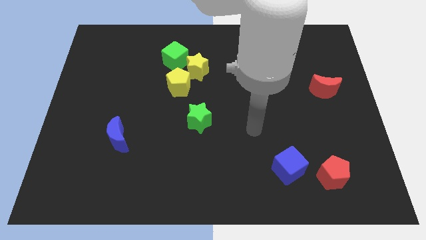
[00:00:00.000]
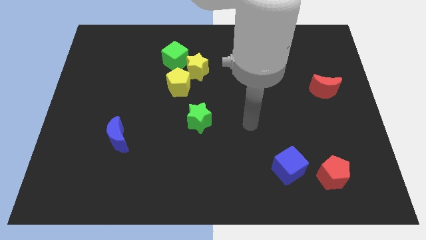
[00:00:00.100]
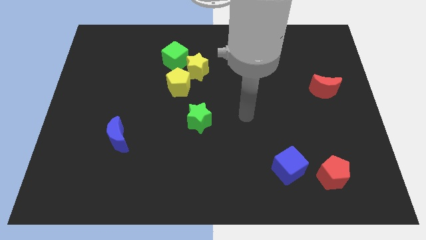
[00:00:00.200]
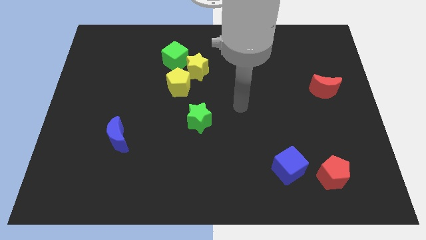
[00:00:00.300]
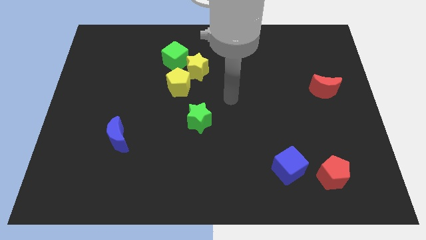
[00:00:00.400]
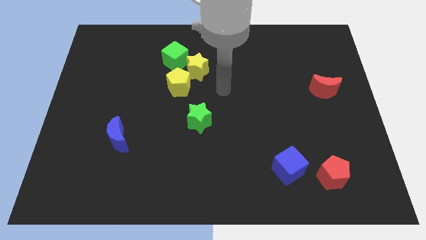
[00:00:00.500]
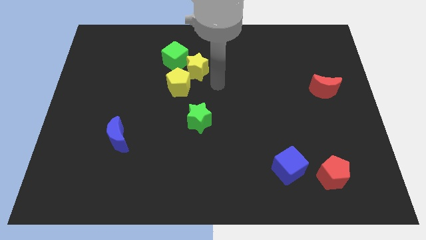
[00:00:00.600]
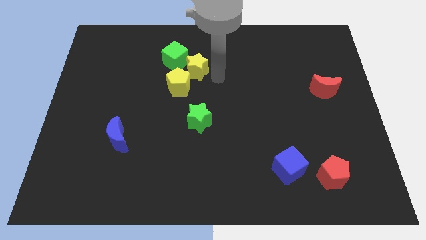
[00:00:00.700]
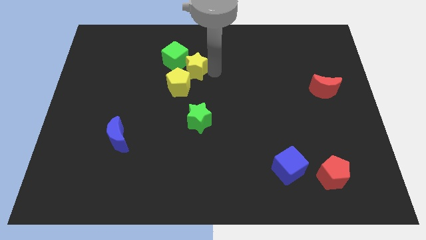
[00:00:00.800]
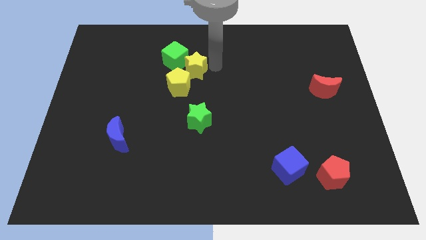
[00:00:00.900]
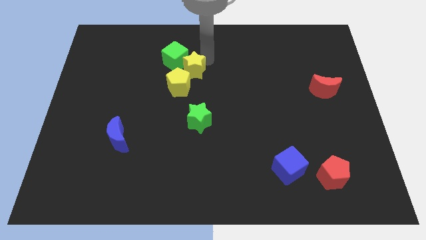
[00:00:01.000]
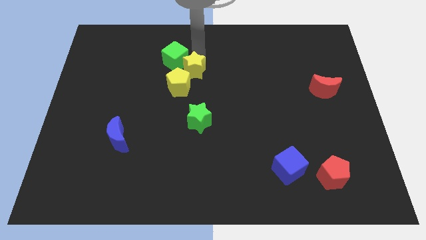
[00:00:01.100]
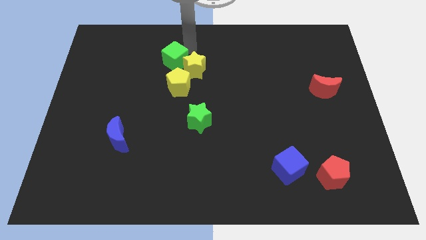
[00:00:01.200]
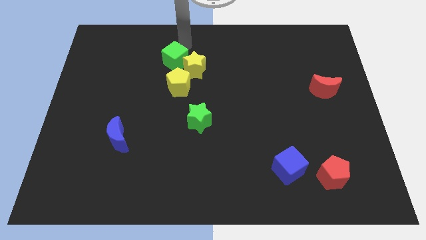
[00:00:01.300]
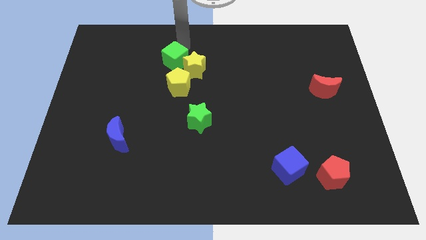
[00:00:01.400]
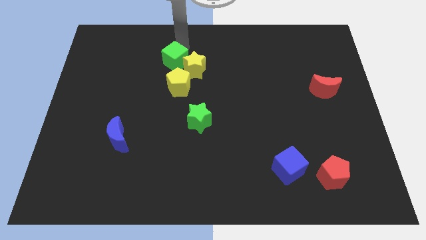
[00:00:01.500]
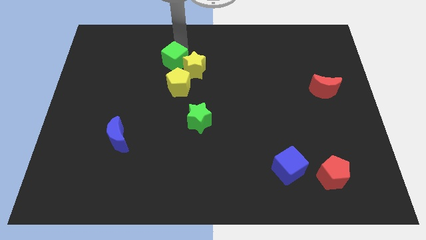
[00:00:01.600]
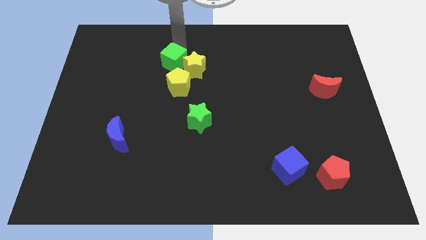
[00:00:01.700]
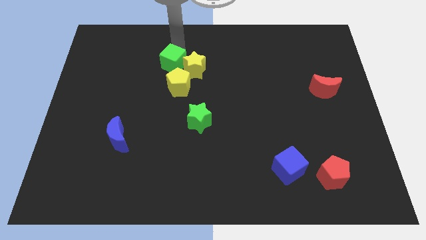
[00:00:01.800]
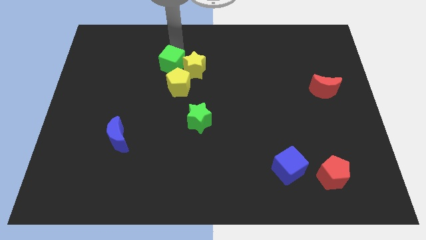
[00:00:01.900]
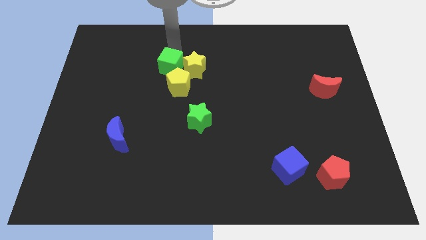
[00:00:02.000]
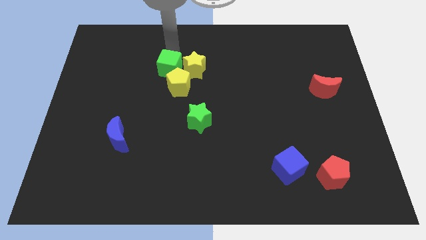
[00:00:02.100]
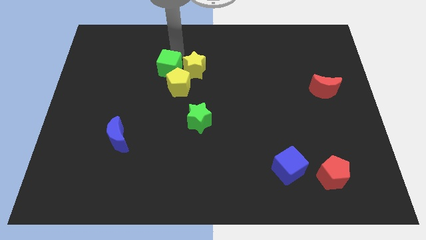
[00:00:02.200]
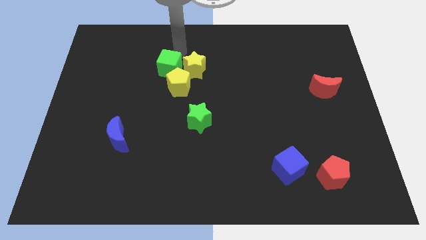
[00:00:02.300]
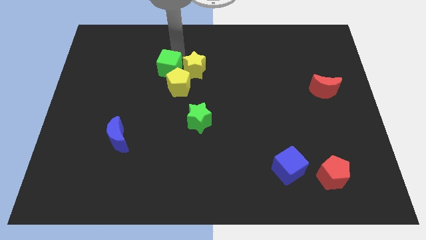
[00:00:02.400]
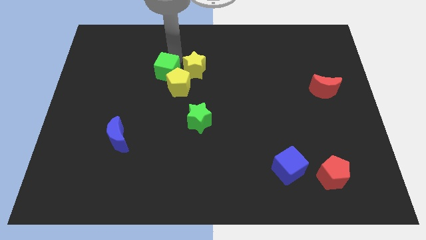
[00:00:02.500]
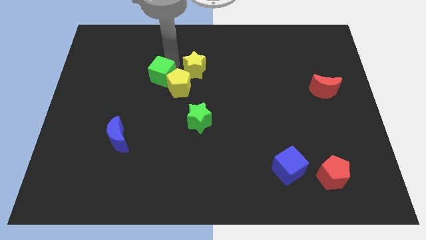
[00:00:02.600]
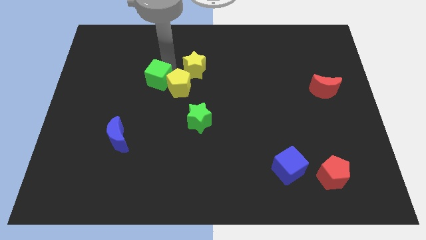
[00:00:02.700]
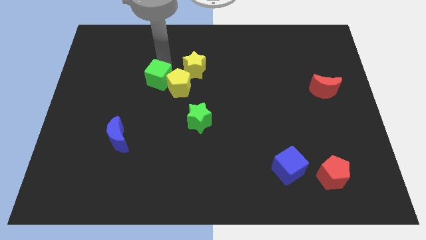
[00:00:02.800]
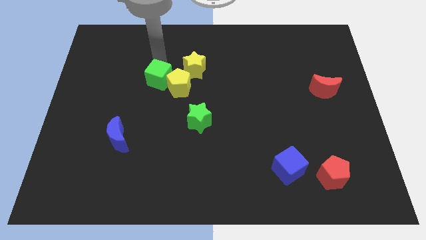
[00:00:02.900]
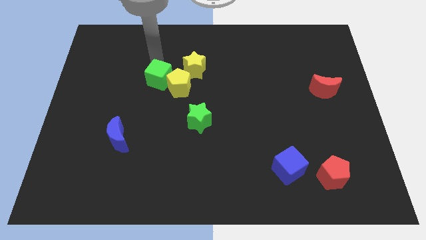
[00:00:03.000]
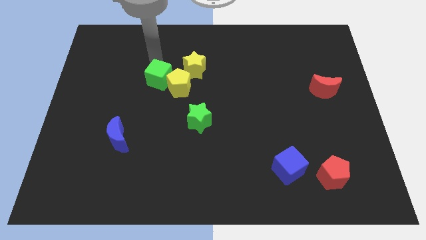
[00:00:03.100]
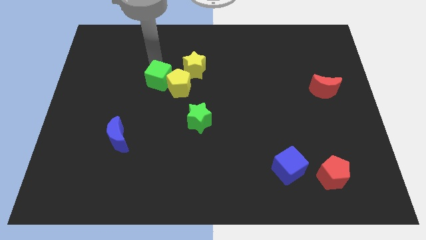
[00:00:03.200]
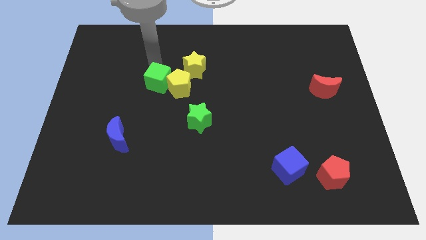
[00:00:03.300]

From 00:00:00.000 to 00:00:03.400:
slightly push the green cube downwards

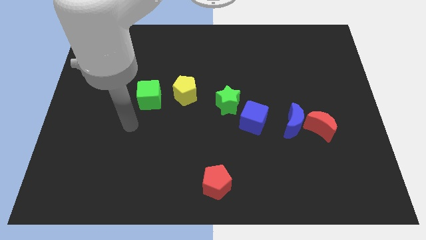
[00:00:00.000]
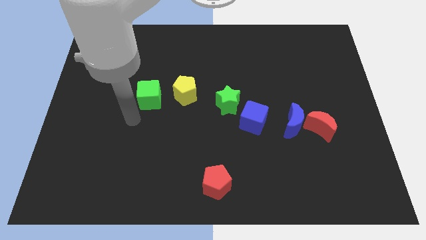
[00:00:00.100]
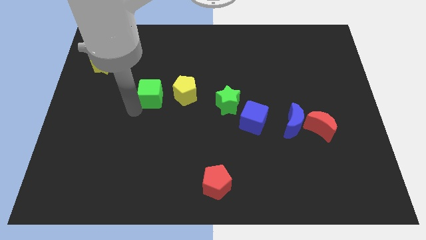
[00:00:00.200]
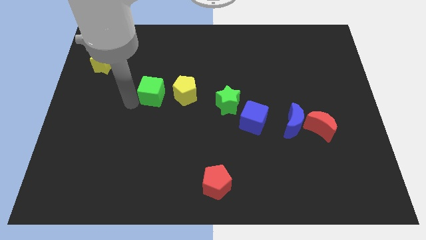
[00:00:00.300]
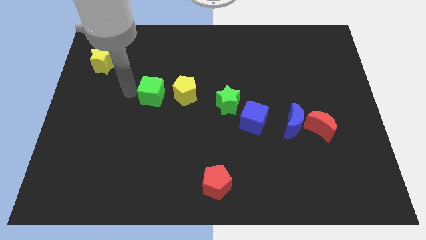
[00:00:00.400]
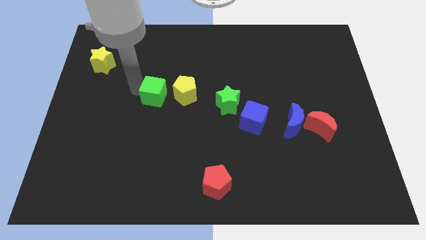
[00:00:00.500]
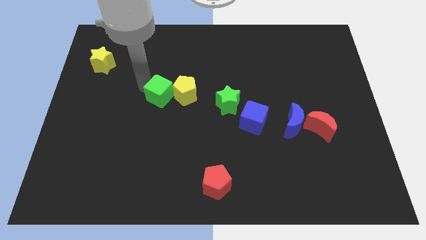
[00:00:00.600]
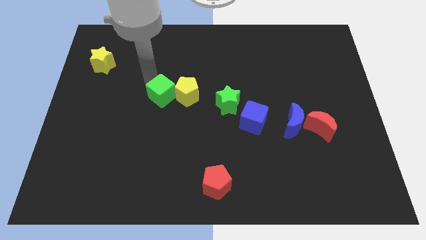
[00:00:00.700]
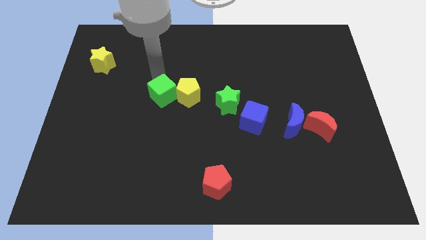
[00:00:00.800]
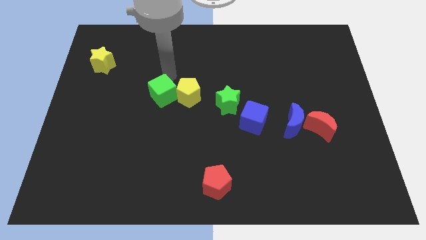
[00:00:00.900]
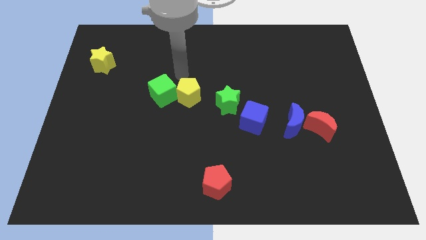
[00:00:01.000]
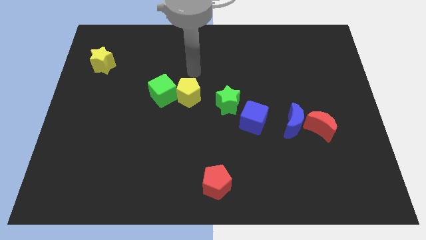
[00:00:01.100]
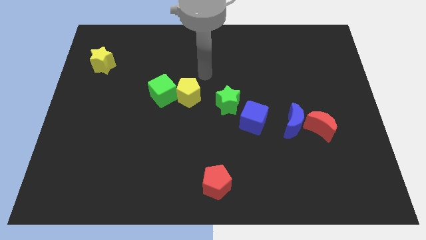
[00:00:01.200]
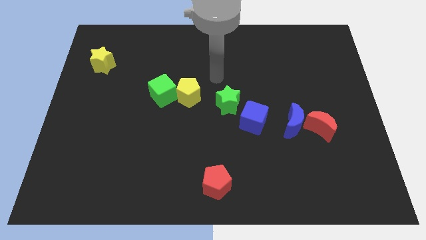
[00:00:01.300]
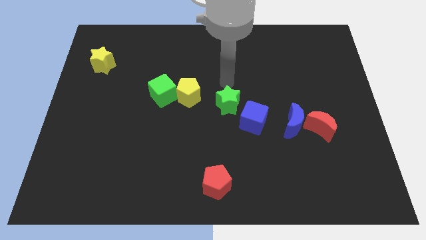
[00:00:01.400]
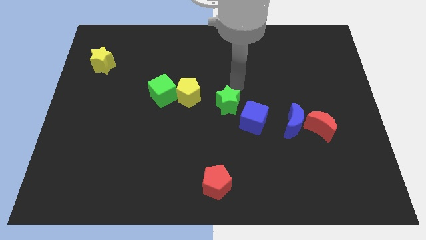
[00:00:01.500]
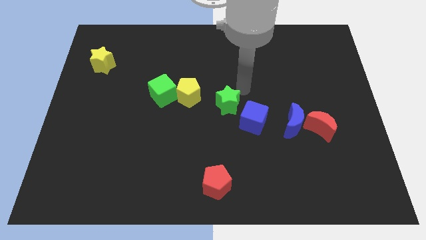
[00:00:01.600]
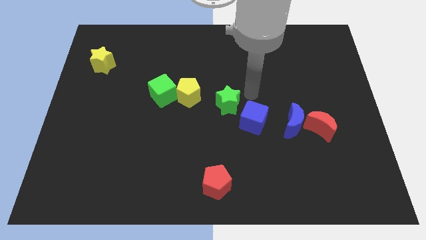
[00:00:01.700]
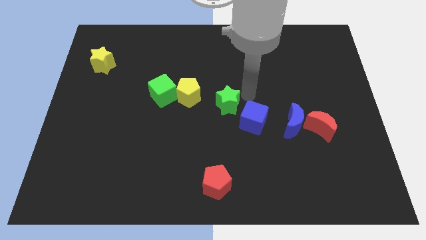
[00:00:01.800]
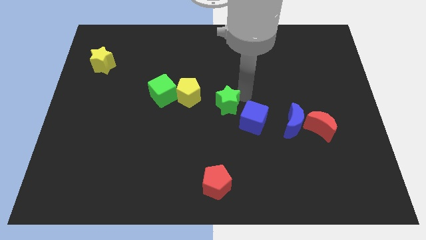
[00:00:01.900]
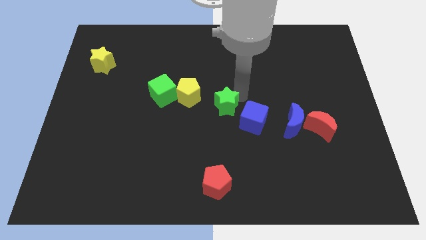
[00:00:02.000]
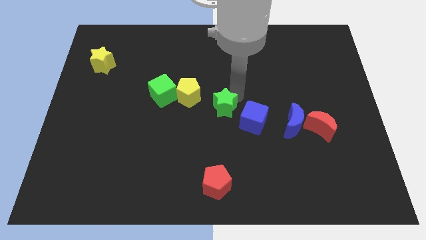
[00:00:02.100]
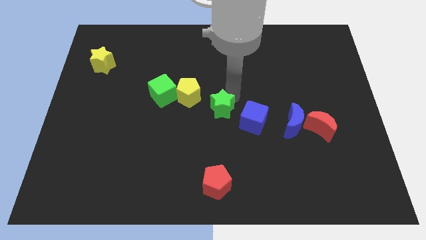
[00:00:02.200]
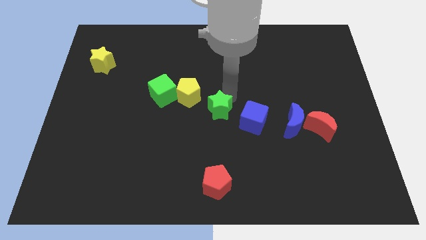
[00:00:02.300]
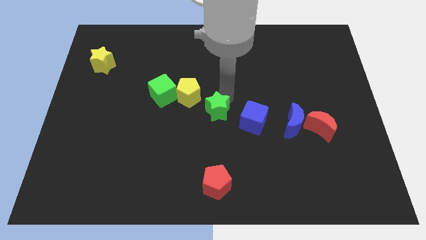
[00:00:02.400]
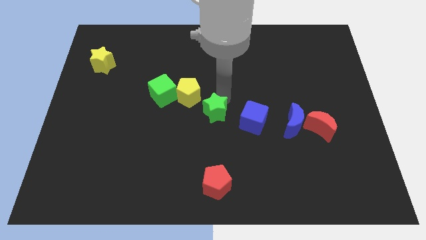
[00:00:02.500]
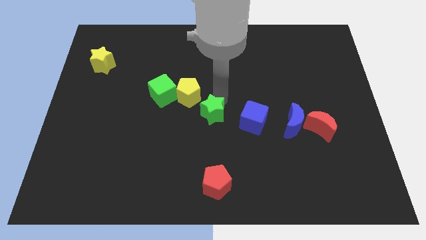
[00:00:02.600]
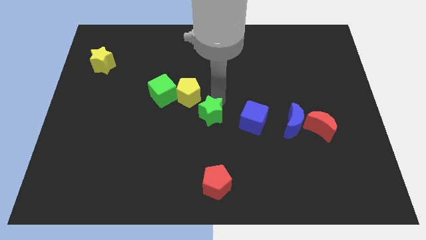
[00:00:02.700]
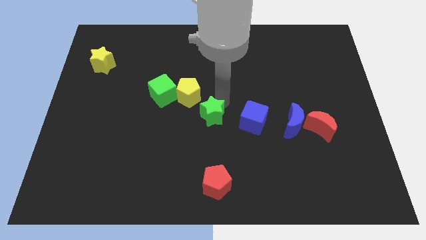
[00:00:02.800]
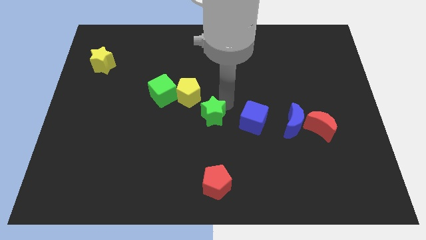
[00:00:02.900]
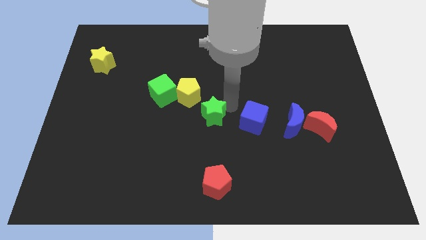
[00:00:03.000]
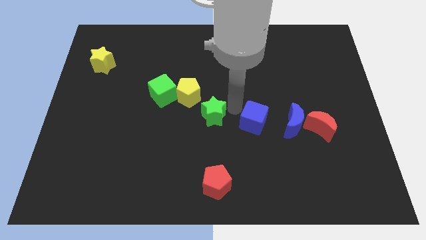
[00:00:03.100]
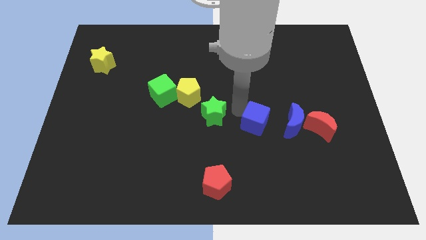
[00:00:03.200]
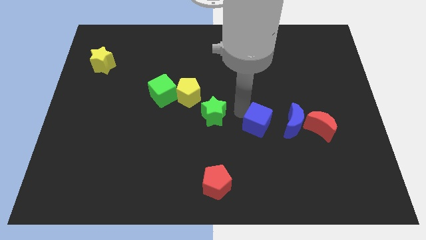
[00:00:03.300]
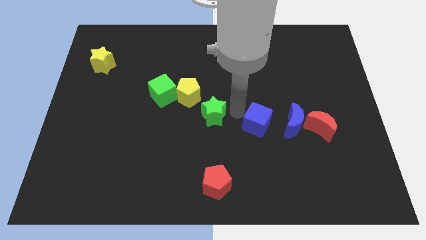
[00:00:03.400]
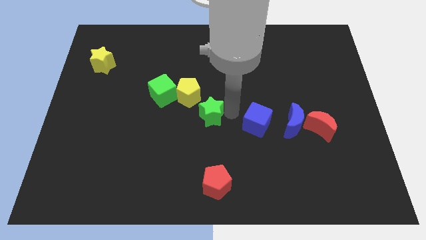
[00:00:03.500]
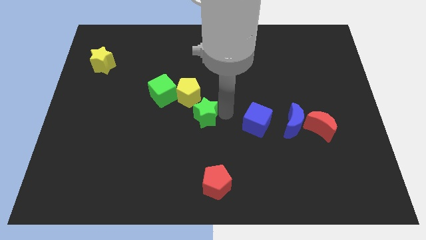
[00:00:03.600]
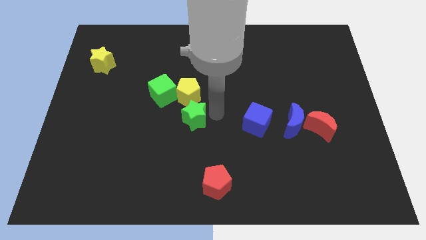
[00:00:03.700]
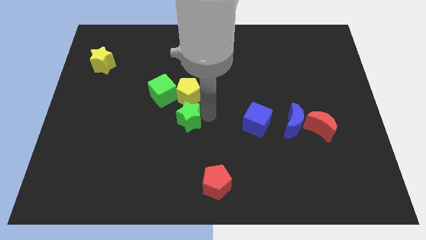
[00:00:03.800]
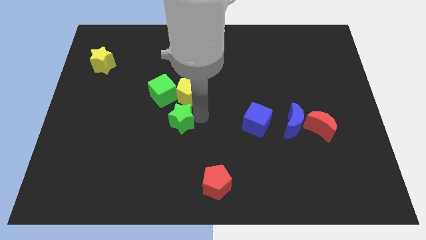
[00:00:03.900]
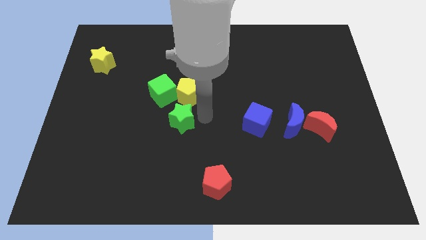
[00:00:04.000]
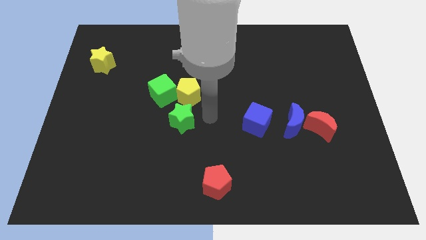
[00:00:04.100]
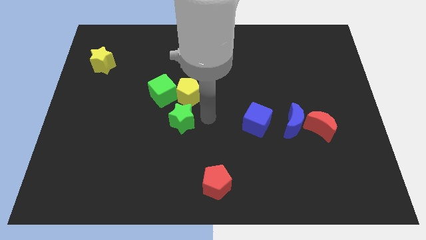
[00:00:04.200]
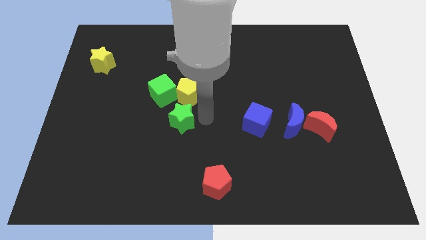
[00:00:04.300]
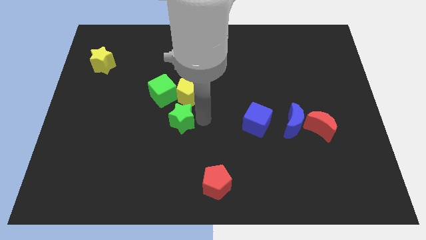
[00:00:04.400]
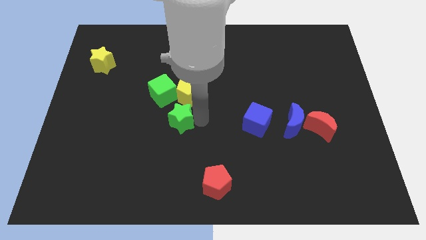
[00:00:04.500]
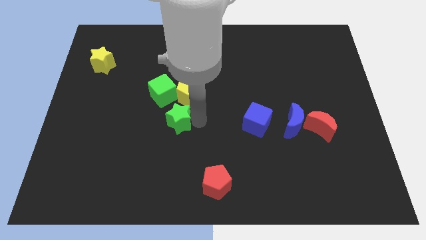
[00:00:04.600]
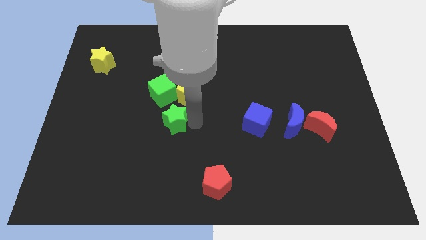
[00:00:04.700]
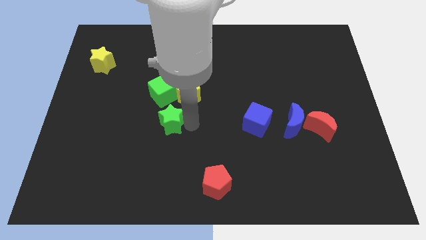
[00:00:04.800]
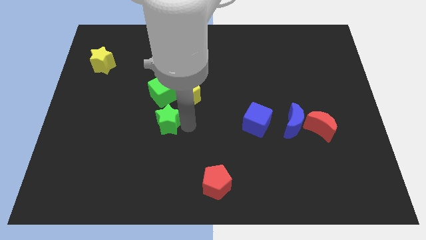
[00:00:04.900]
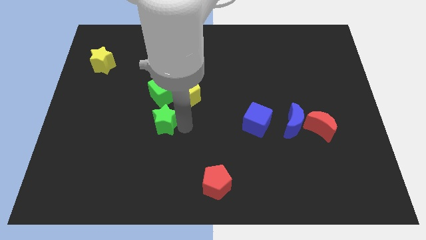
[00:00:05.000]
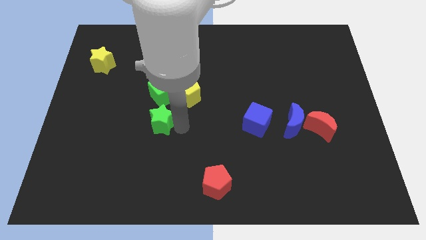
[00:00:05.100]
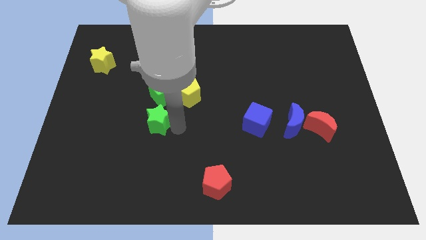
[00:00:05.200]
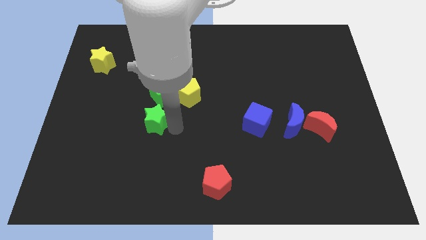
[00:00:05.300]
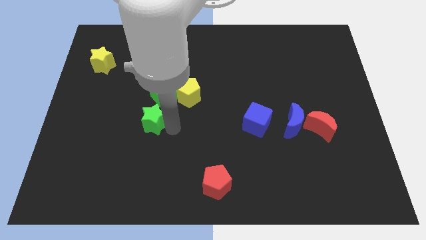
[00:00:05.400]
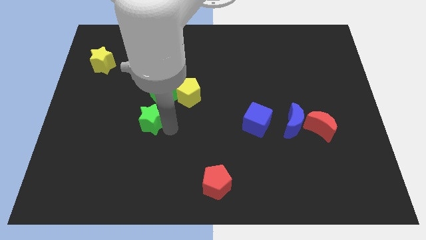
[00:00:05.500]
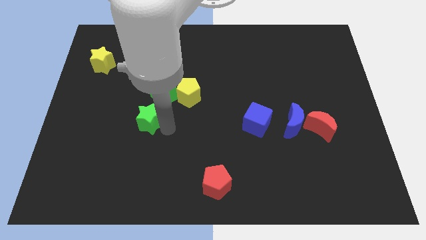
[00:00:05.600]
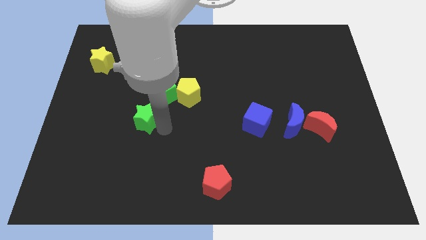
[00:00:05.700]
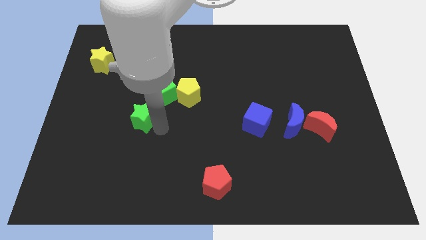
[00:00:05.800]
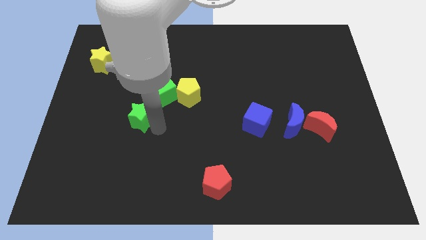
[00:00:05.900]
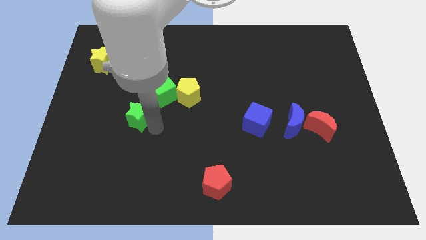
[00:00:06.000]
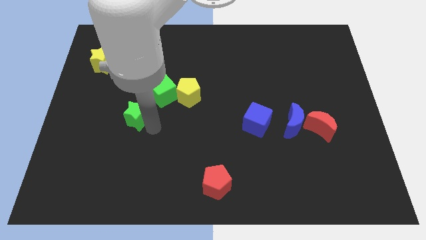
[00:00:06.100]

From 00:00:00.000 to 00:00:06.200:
slide the green star left
